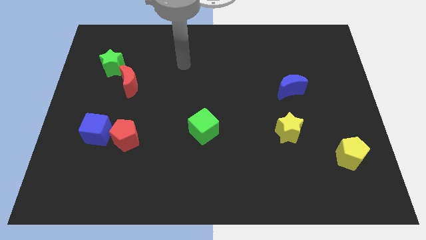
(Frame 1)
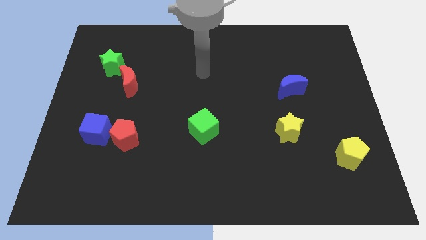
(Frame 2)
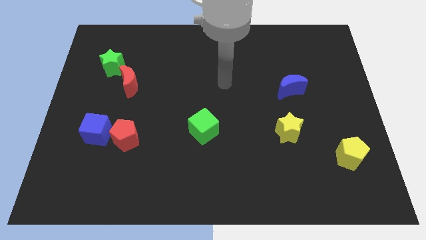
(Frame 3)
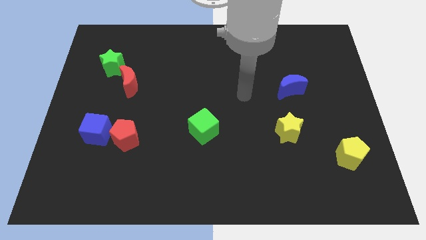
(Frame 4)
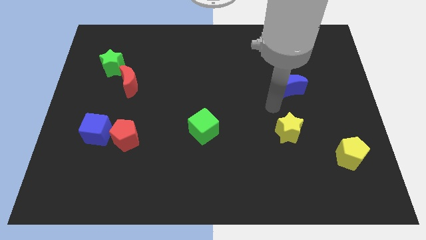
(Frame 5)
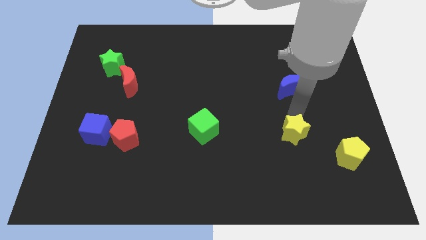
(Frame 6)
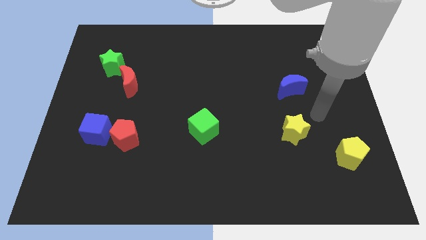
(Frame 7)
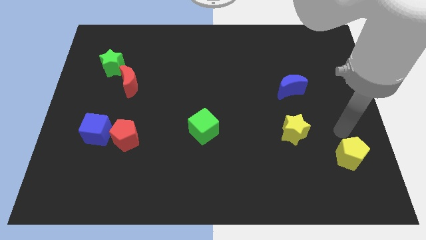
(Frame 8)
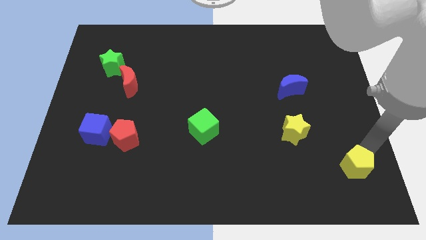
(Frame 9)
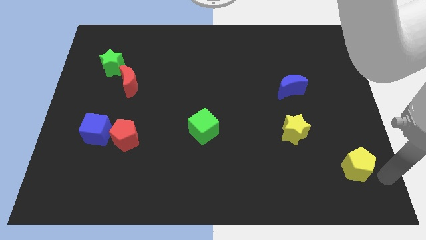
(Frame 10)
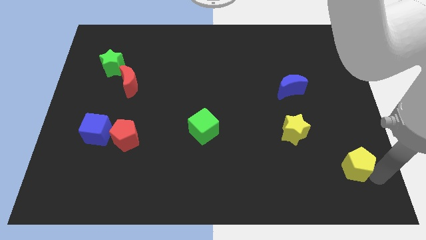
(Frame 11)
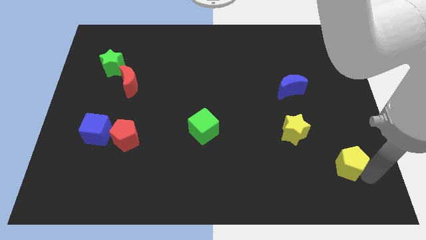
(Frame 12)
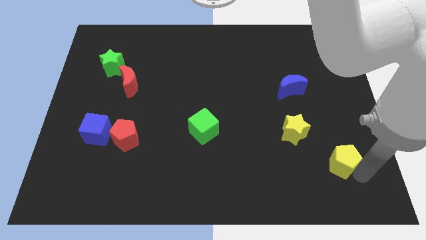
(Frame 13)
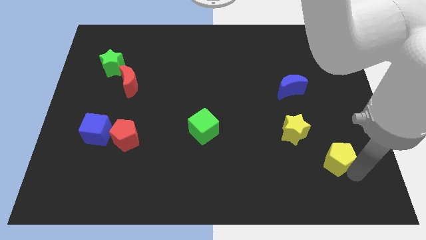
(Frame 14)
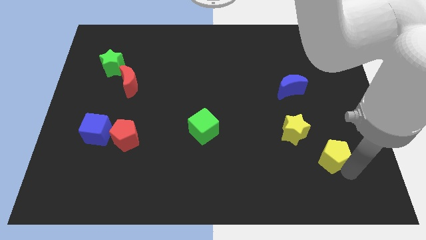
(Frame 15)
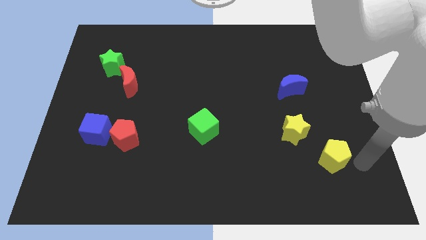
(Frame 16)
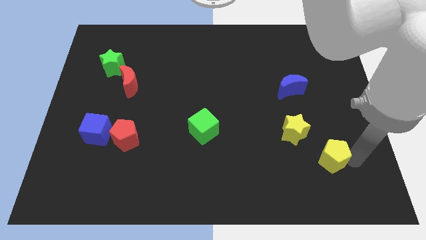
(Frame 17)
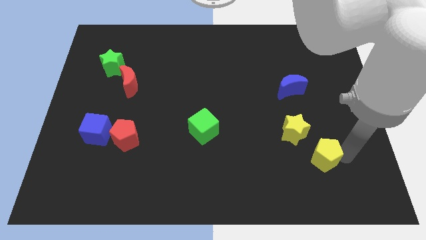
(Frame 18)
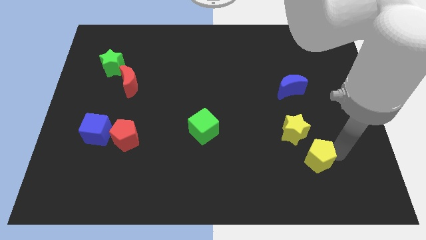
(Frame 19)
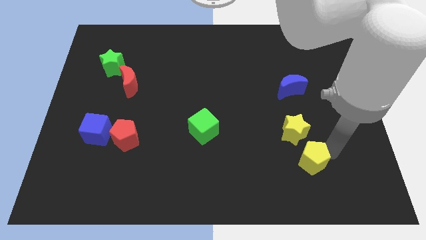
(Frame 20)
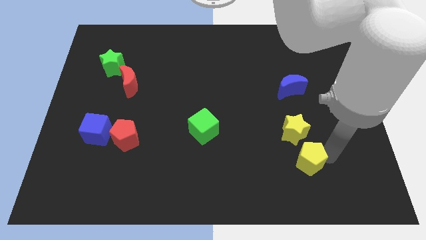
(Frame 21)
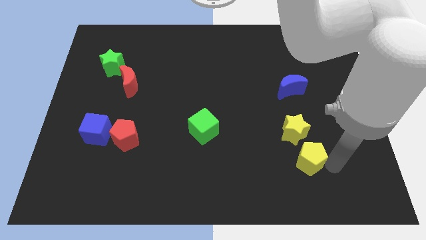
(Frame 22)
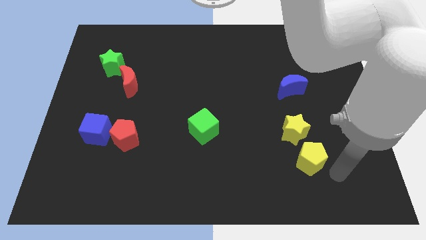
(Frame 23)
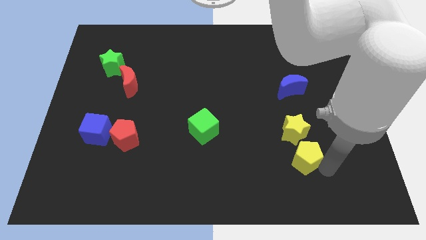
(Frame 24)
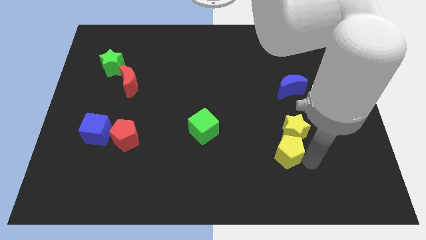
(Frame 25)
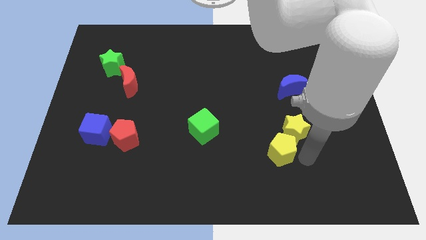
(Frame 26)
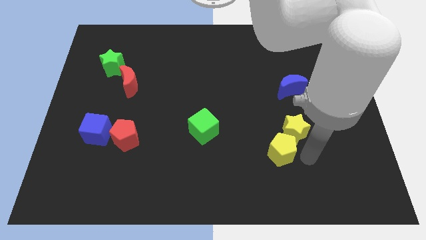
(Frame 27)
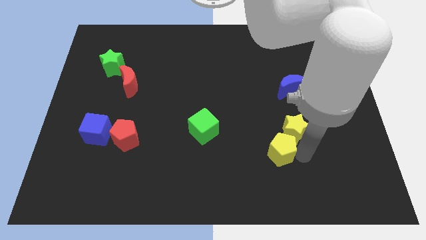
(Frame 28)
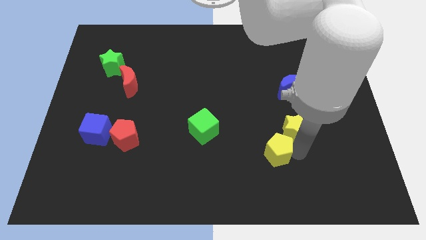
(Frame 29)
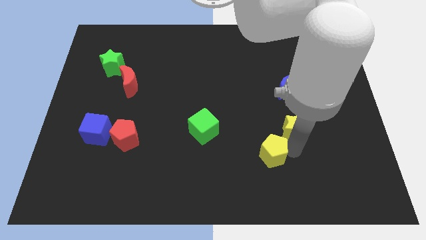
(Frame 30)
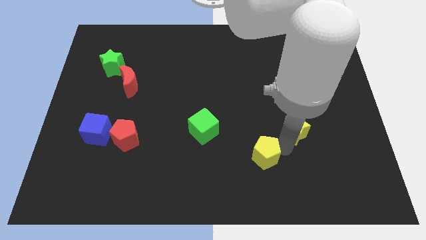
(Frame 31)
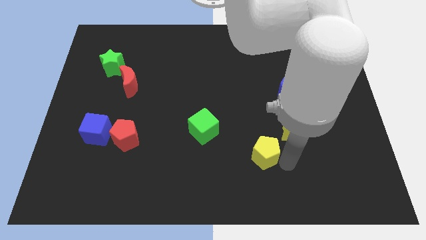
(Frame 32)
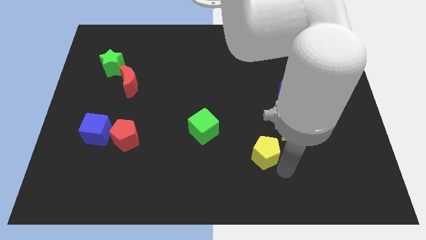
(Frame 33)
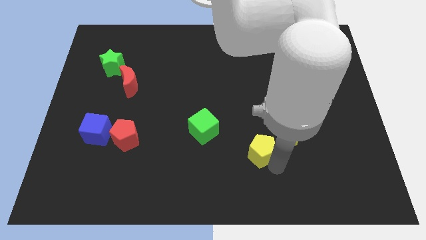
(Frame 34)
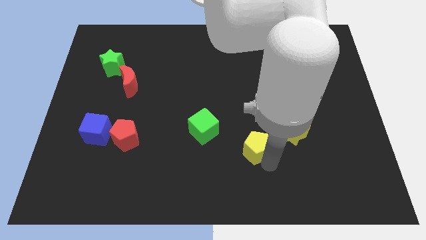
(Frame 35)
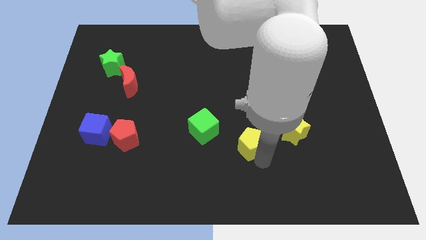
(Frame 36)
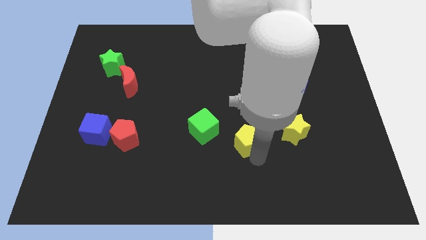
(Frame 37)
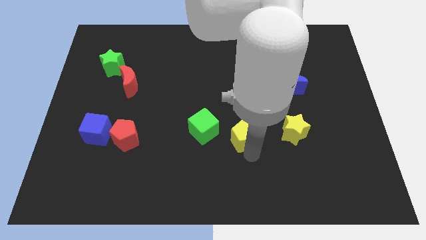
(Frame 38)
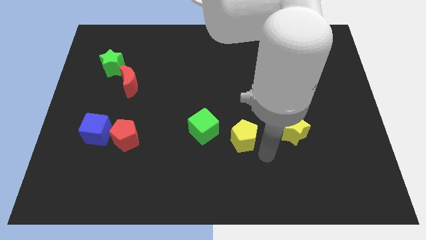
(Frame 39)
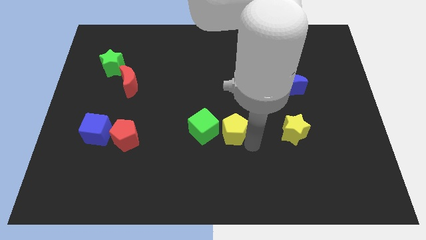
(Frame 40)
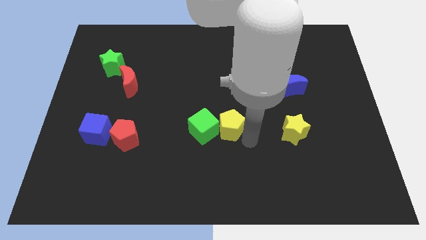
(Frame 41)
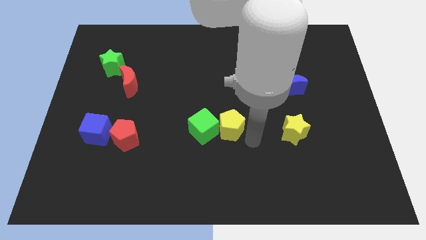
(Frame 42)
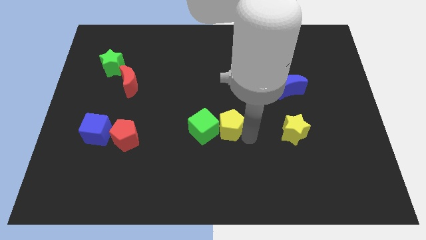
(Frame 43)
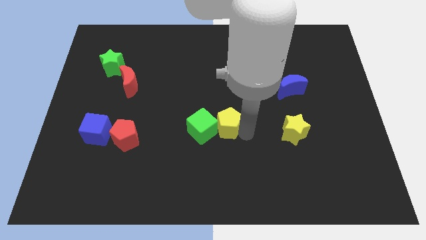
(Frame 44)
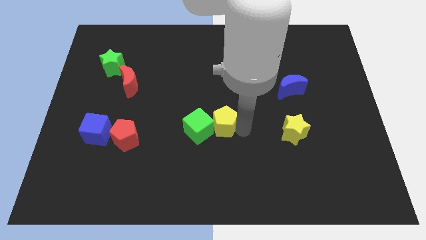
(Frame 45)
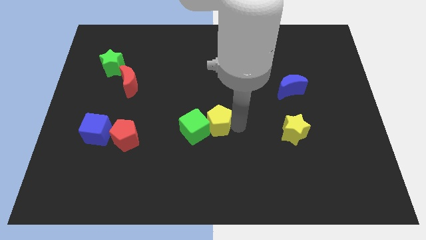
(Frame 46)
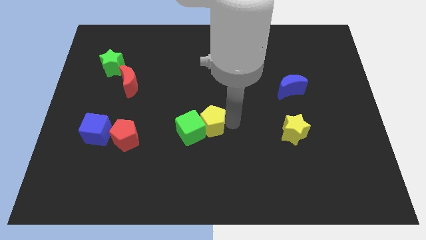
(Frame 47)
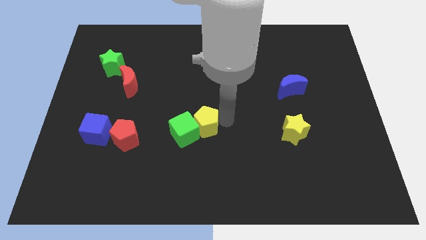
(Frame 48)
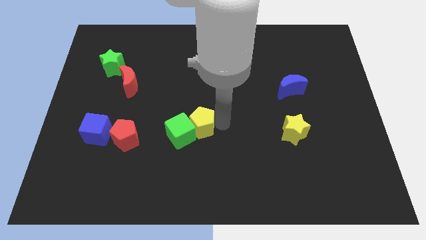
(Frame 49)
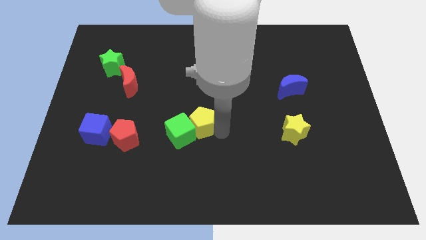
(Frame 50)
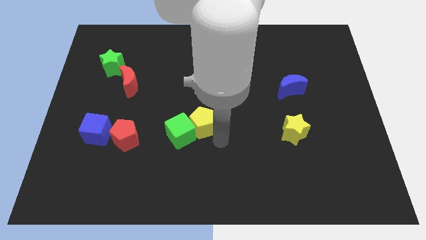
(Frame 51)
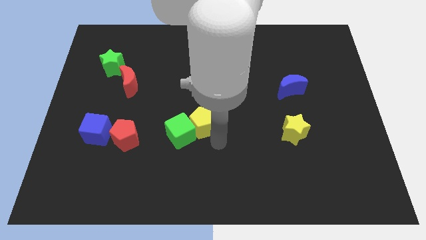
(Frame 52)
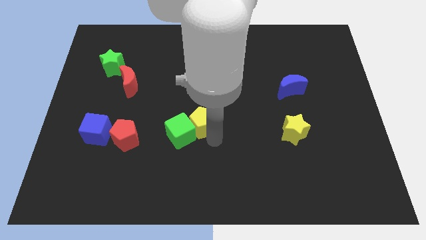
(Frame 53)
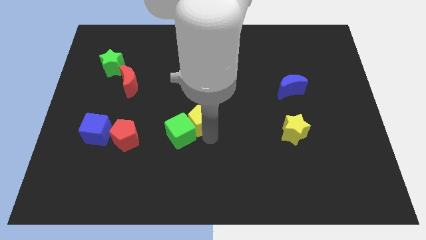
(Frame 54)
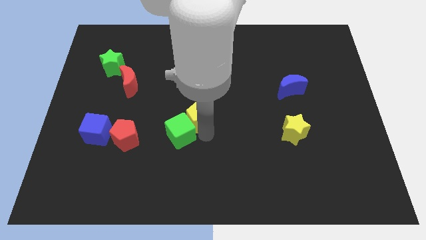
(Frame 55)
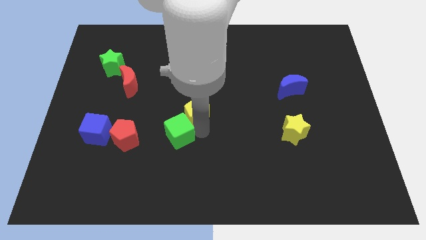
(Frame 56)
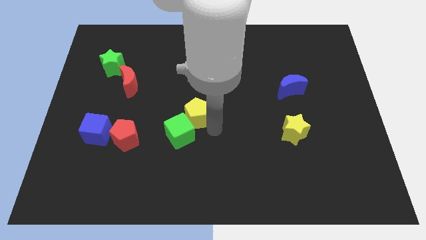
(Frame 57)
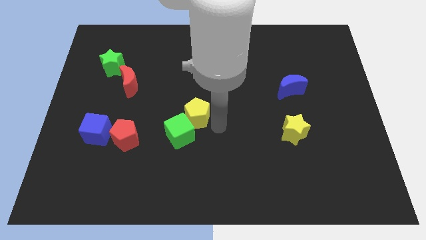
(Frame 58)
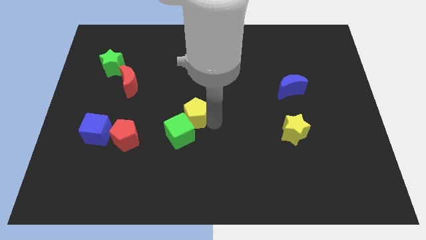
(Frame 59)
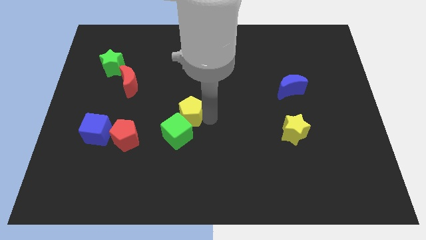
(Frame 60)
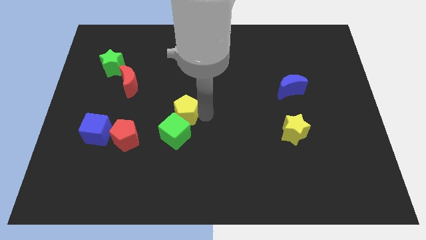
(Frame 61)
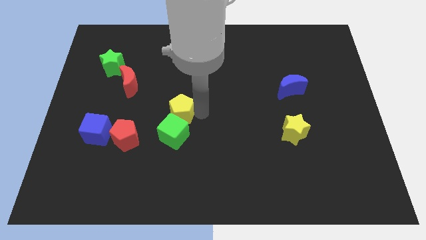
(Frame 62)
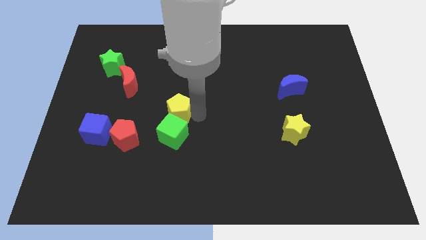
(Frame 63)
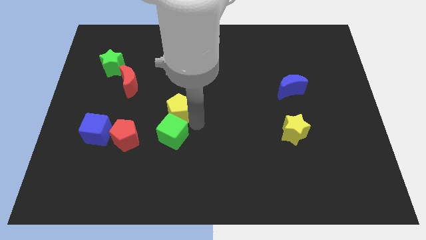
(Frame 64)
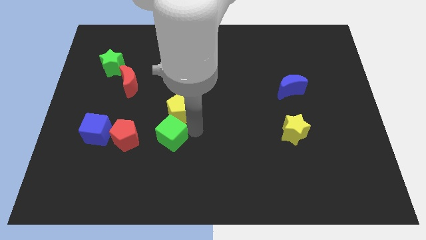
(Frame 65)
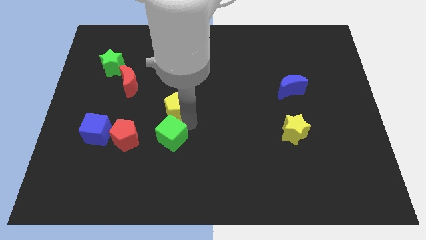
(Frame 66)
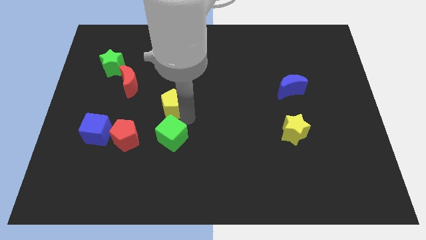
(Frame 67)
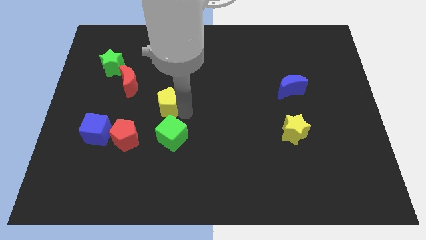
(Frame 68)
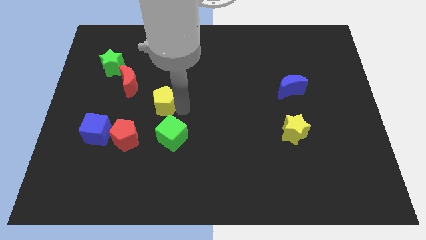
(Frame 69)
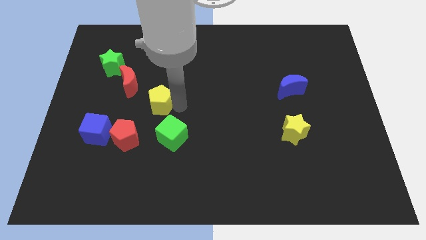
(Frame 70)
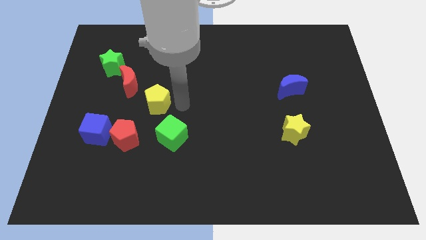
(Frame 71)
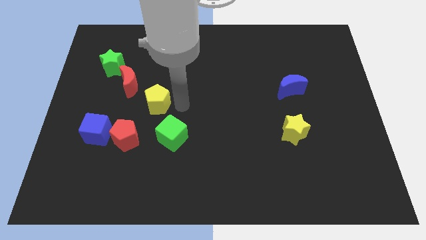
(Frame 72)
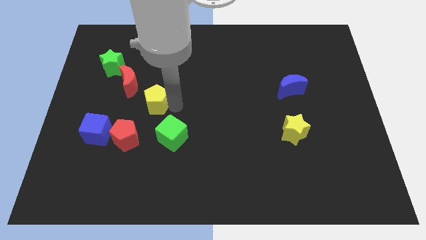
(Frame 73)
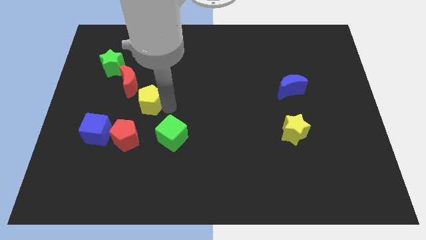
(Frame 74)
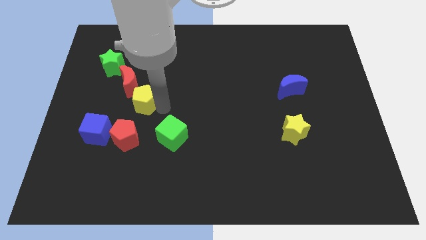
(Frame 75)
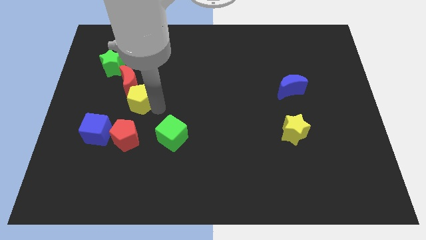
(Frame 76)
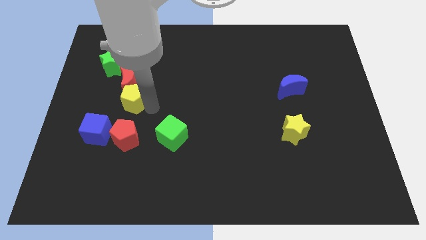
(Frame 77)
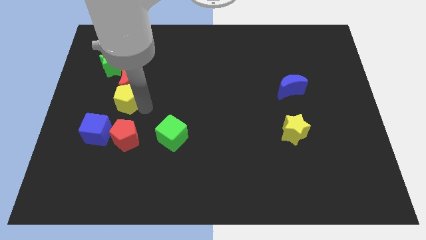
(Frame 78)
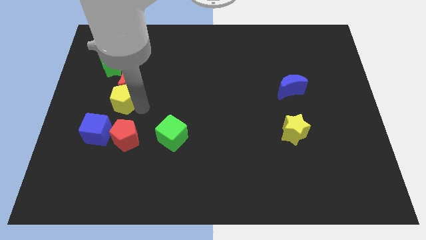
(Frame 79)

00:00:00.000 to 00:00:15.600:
push the yellow pentagon to the top of the blue cube
